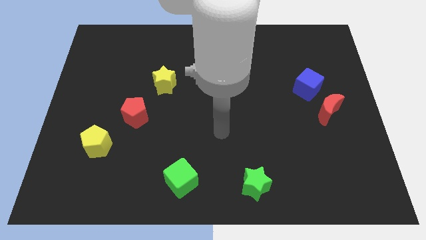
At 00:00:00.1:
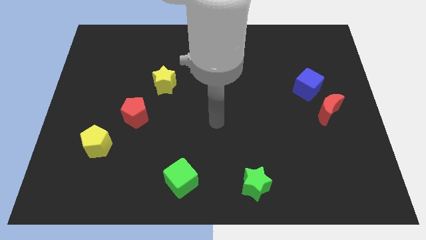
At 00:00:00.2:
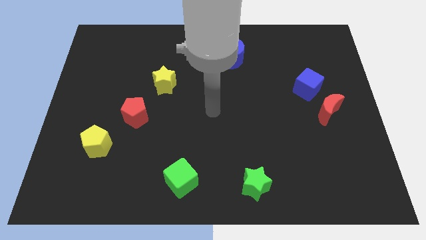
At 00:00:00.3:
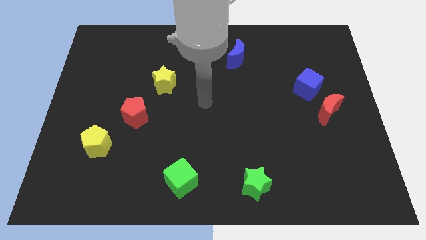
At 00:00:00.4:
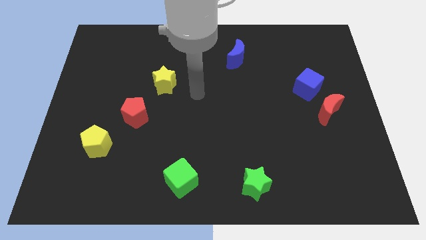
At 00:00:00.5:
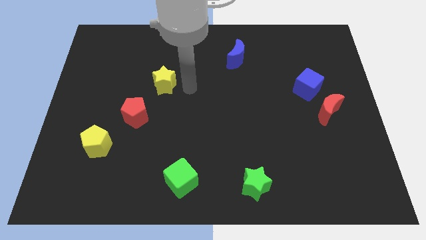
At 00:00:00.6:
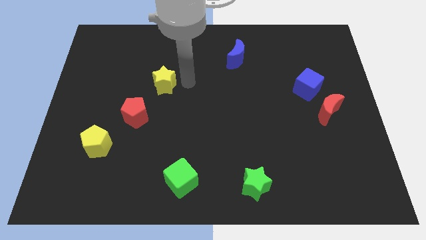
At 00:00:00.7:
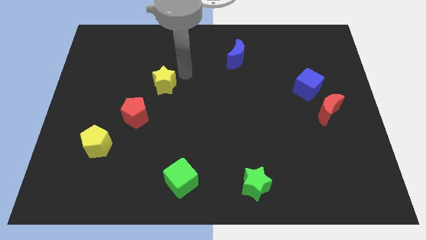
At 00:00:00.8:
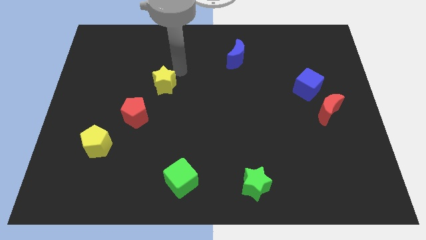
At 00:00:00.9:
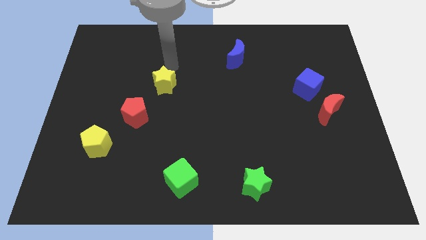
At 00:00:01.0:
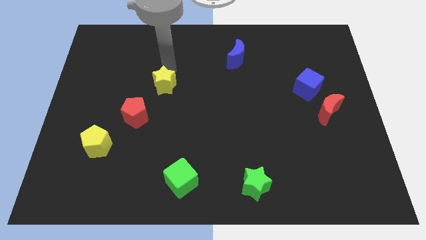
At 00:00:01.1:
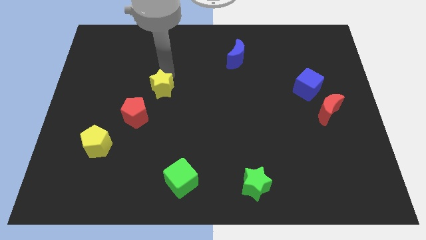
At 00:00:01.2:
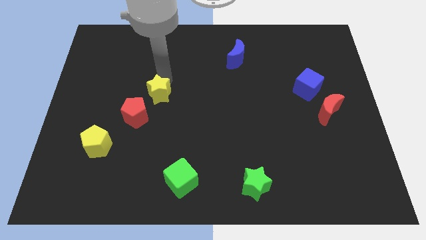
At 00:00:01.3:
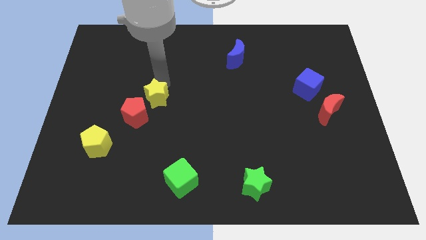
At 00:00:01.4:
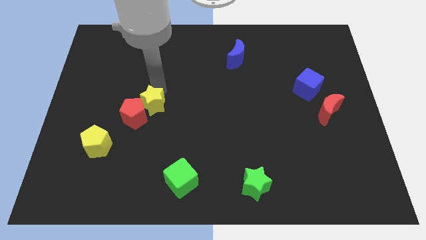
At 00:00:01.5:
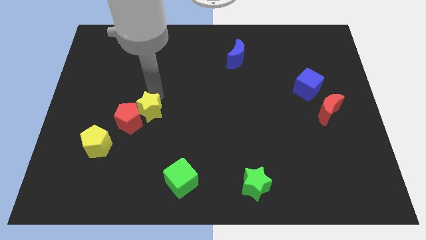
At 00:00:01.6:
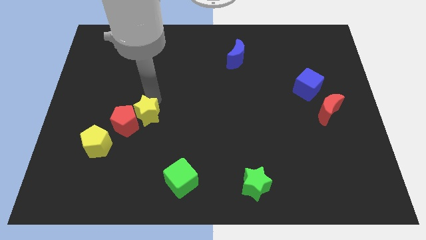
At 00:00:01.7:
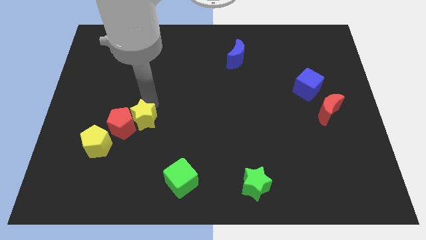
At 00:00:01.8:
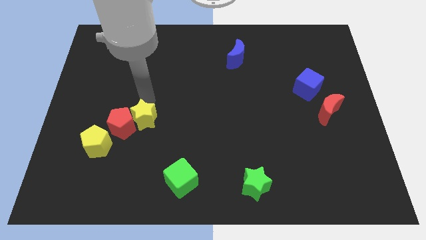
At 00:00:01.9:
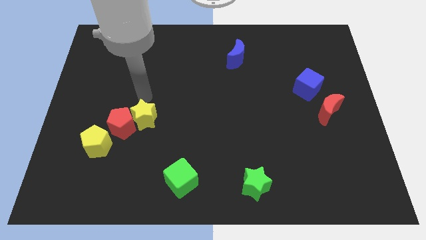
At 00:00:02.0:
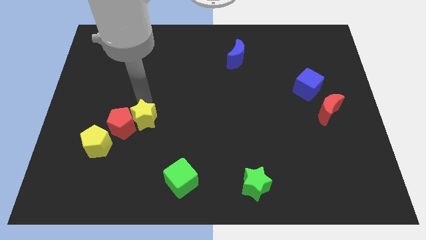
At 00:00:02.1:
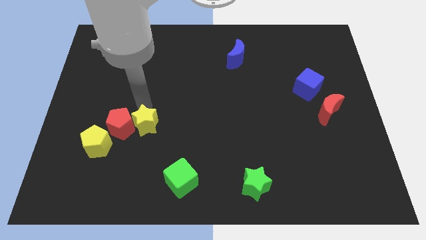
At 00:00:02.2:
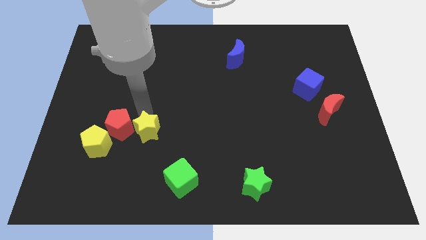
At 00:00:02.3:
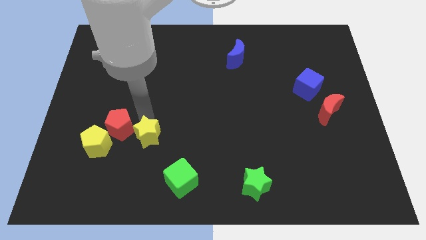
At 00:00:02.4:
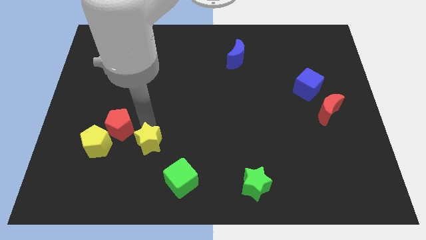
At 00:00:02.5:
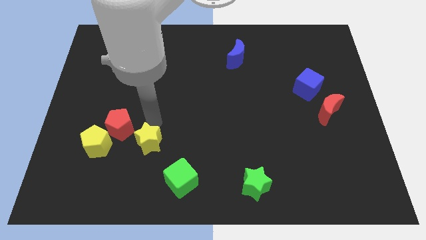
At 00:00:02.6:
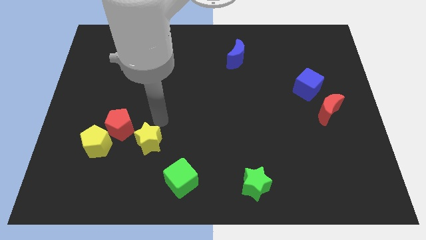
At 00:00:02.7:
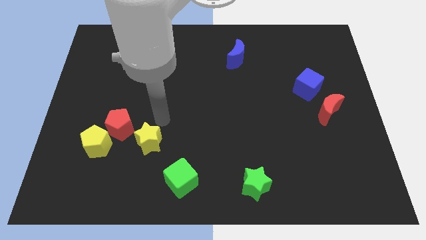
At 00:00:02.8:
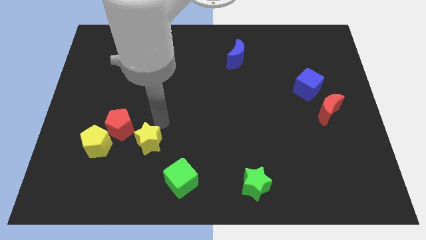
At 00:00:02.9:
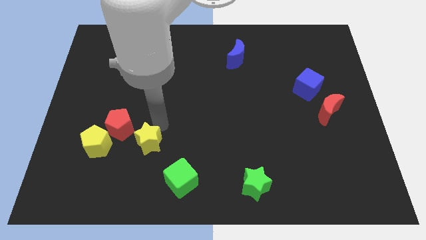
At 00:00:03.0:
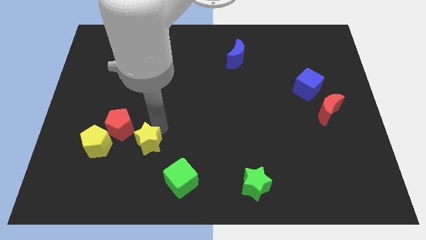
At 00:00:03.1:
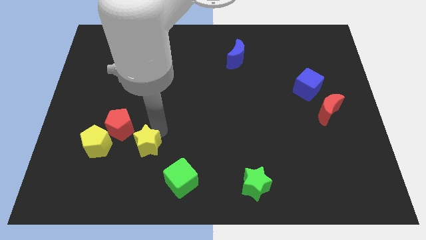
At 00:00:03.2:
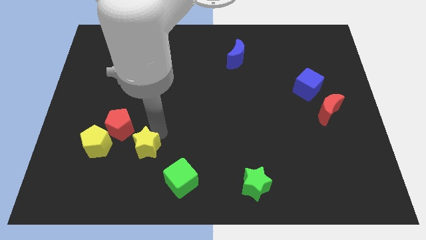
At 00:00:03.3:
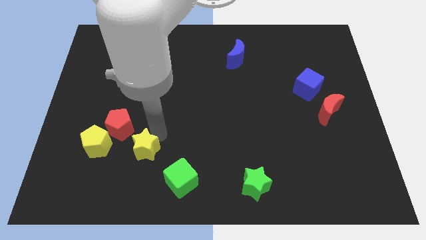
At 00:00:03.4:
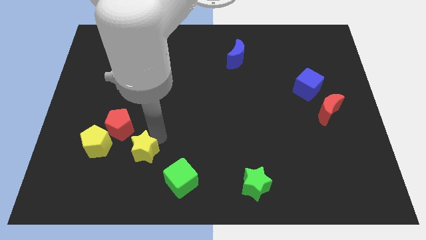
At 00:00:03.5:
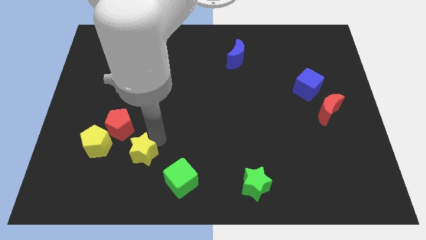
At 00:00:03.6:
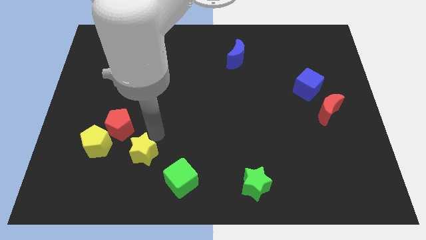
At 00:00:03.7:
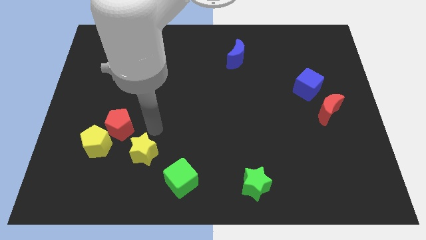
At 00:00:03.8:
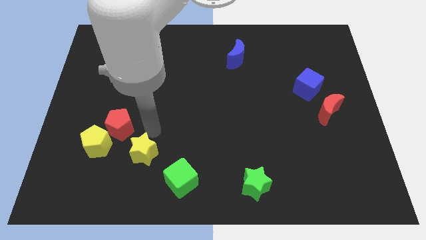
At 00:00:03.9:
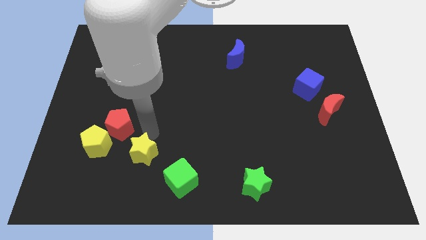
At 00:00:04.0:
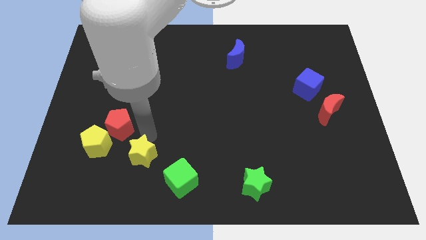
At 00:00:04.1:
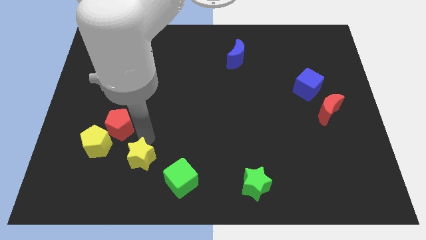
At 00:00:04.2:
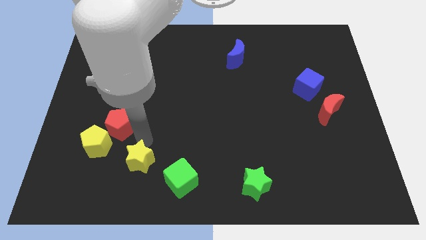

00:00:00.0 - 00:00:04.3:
push the yellow star left of the green cube

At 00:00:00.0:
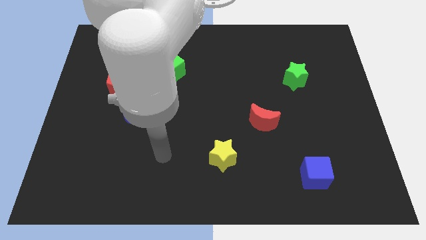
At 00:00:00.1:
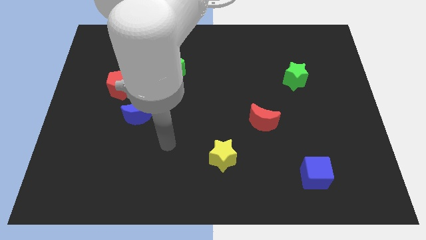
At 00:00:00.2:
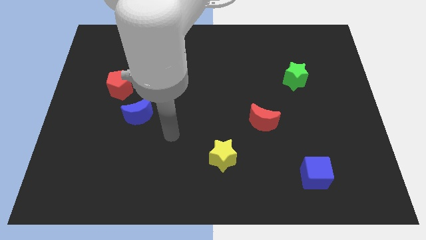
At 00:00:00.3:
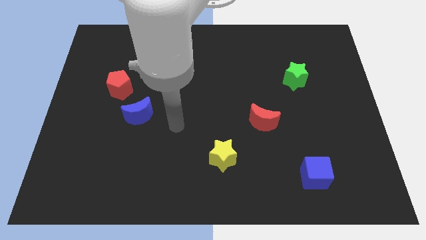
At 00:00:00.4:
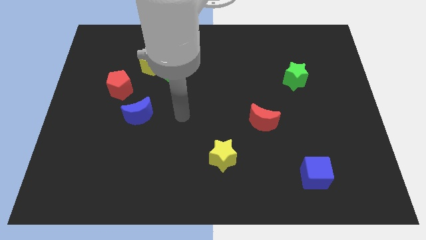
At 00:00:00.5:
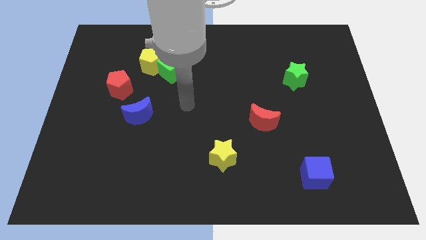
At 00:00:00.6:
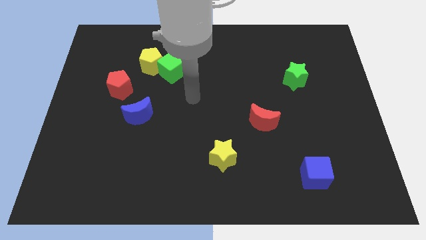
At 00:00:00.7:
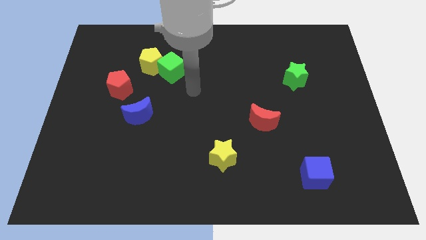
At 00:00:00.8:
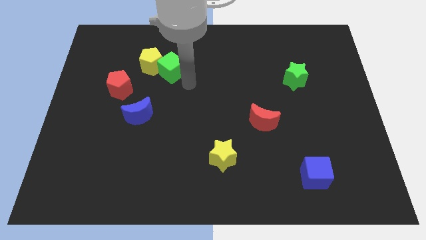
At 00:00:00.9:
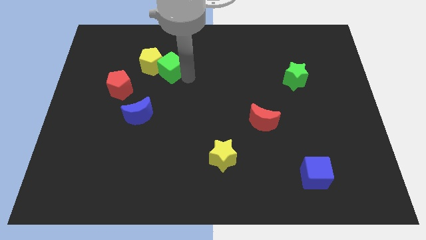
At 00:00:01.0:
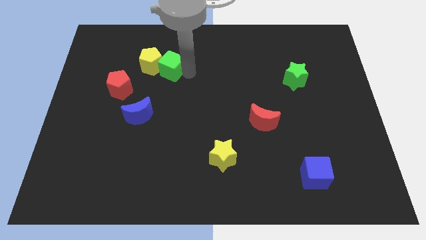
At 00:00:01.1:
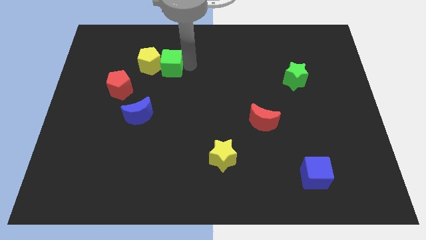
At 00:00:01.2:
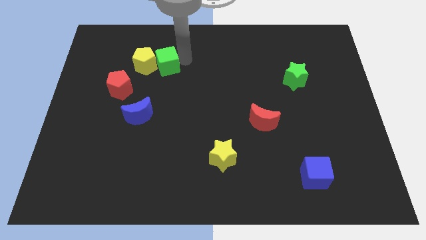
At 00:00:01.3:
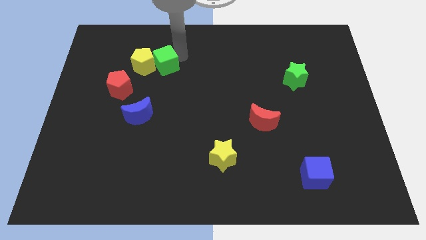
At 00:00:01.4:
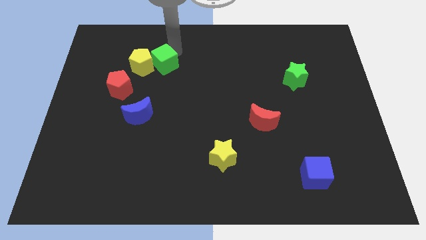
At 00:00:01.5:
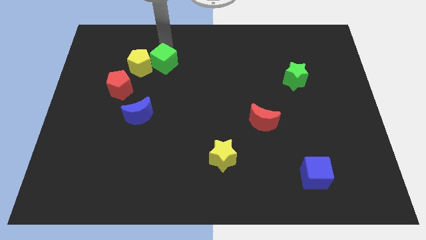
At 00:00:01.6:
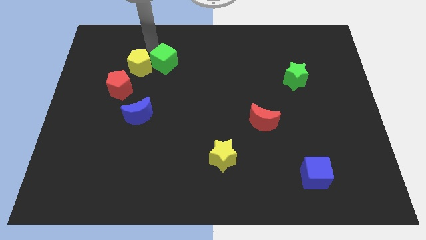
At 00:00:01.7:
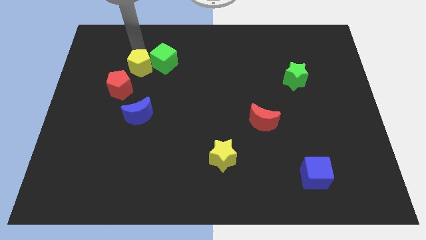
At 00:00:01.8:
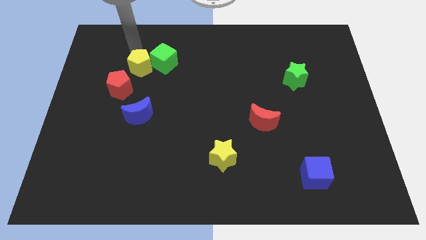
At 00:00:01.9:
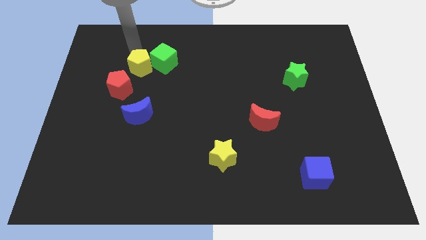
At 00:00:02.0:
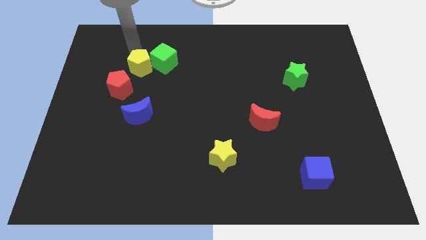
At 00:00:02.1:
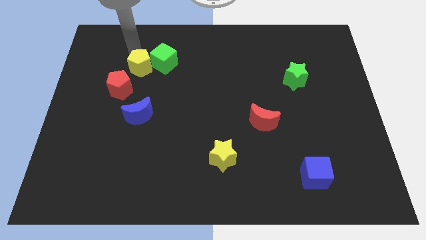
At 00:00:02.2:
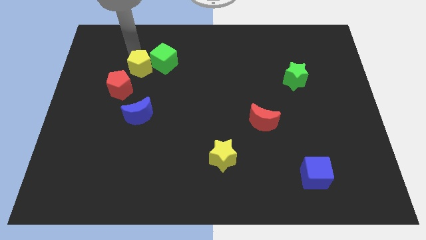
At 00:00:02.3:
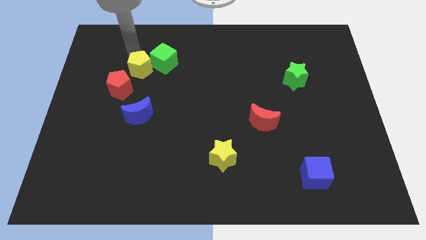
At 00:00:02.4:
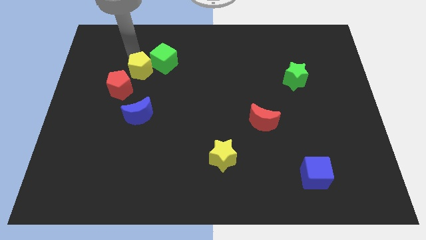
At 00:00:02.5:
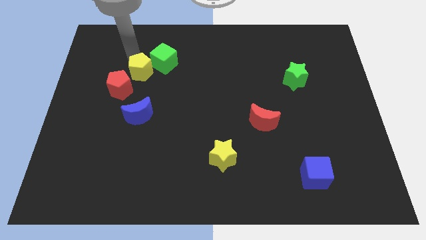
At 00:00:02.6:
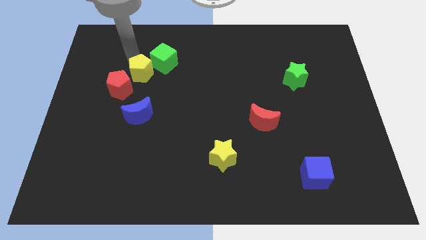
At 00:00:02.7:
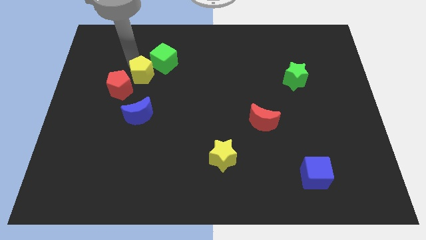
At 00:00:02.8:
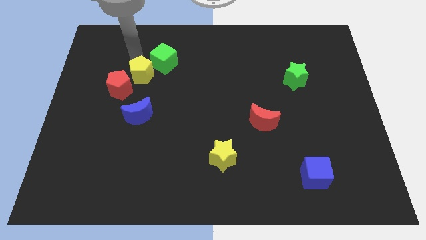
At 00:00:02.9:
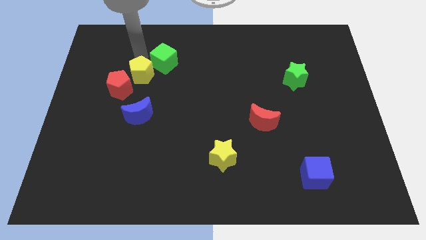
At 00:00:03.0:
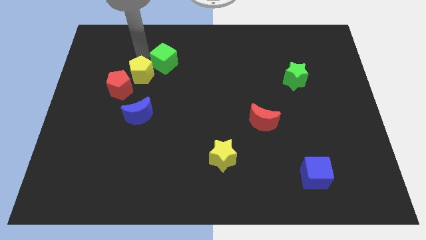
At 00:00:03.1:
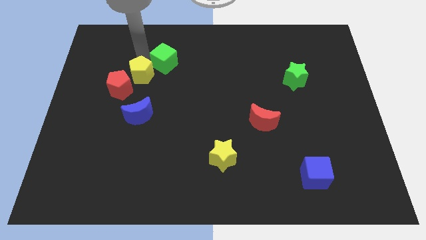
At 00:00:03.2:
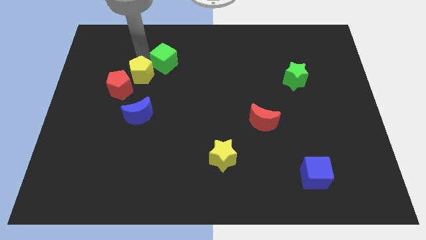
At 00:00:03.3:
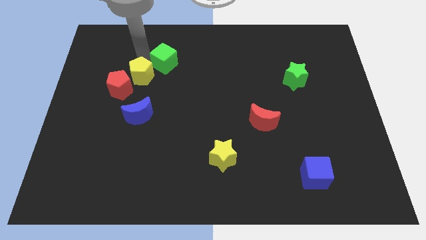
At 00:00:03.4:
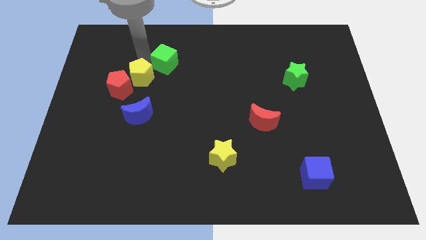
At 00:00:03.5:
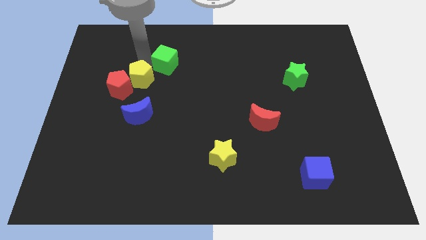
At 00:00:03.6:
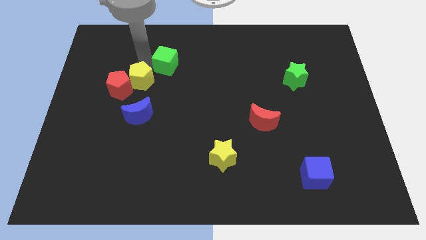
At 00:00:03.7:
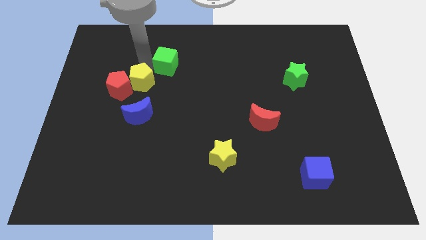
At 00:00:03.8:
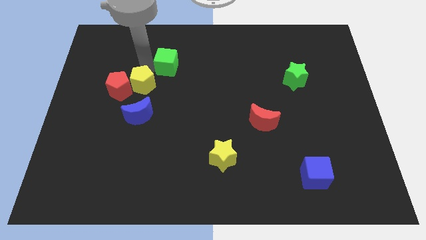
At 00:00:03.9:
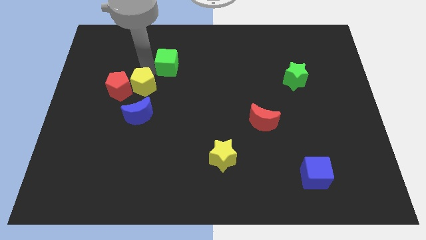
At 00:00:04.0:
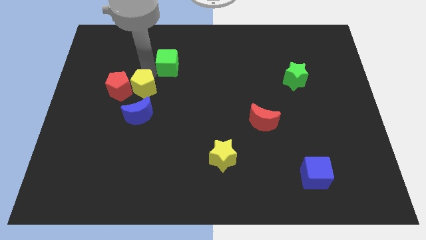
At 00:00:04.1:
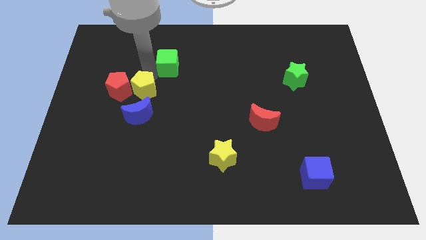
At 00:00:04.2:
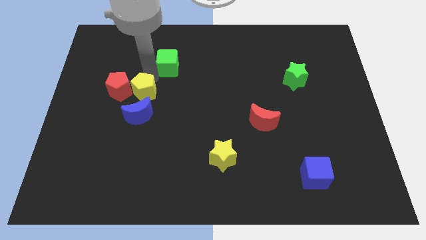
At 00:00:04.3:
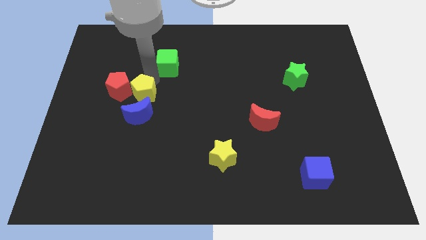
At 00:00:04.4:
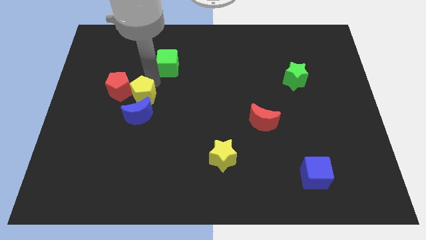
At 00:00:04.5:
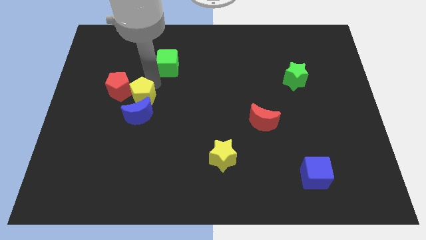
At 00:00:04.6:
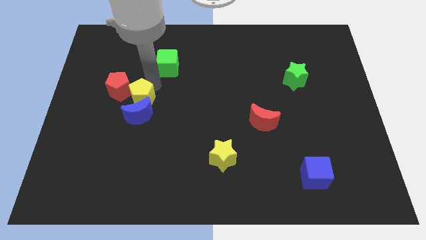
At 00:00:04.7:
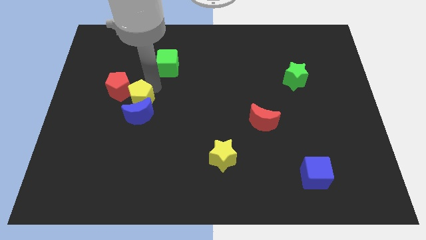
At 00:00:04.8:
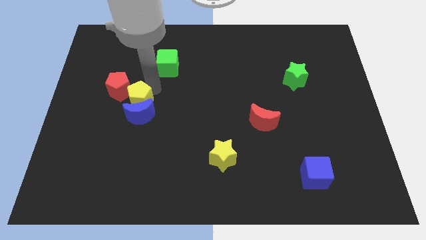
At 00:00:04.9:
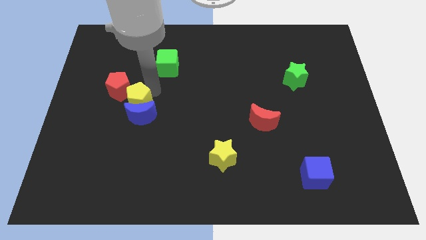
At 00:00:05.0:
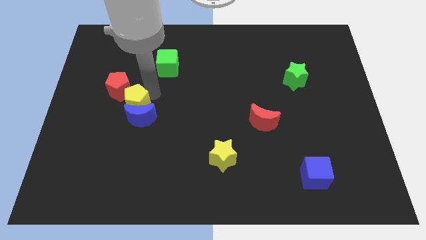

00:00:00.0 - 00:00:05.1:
slide the yellow pentagon below the red pentagon
